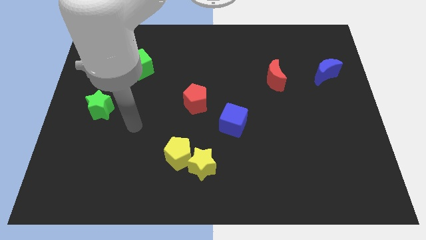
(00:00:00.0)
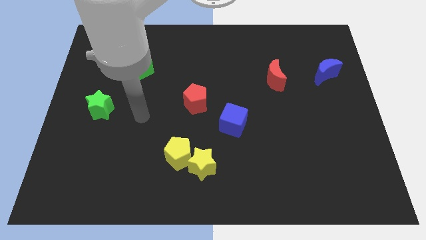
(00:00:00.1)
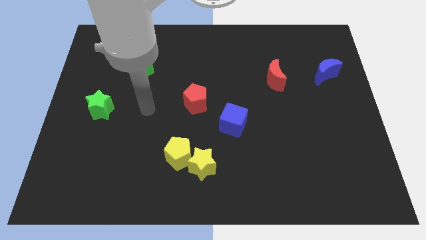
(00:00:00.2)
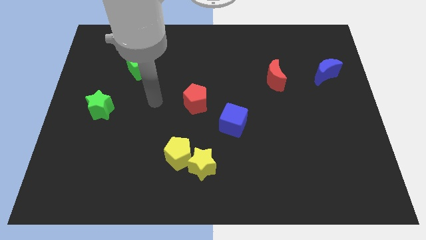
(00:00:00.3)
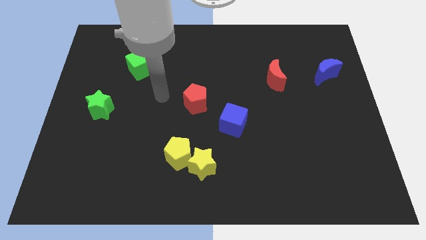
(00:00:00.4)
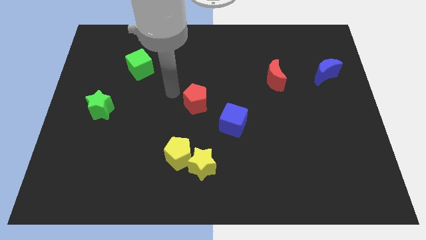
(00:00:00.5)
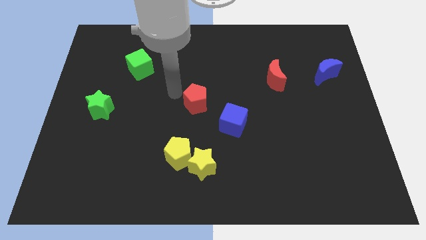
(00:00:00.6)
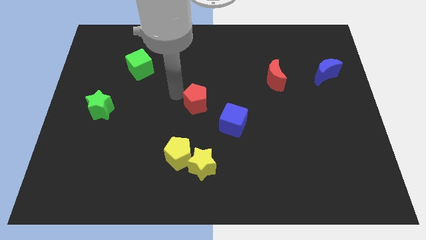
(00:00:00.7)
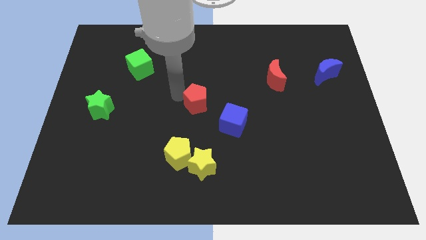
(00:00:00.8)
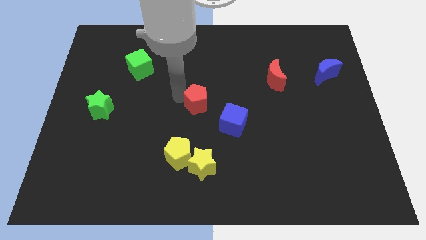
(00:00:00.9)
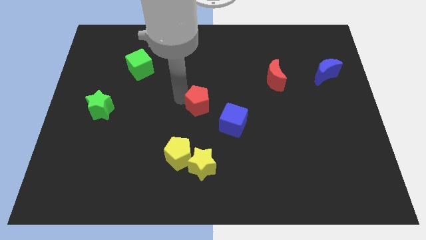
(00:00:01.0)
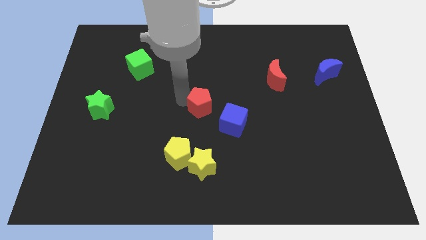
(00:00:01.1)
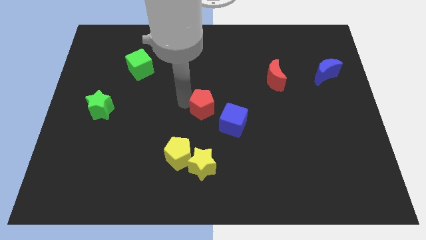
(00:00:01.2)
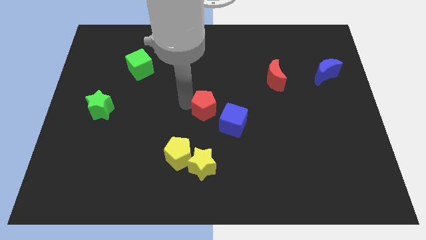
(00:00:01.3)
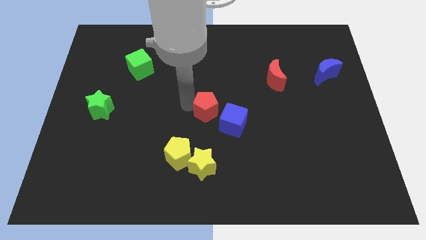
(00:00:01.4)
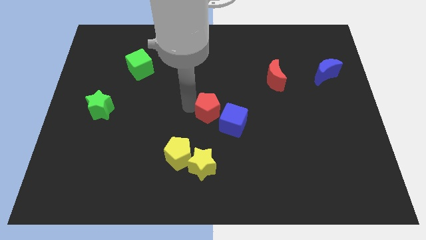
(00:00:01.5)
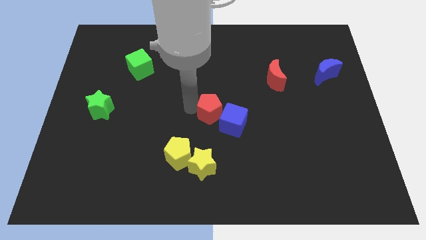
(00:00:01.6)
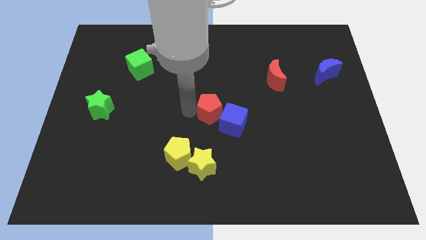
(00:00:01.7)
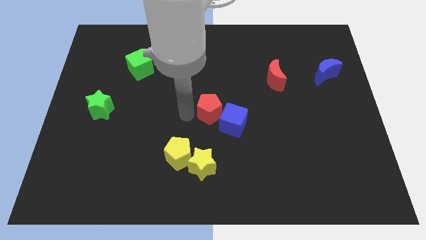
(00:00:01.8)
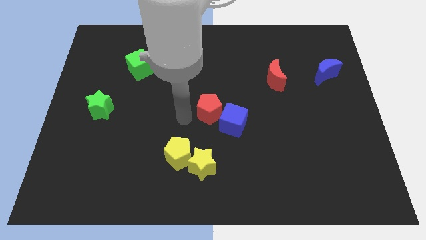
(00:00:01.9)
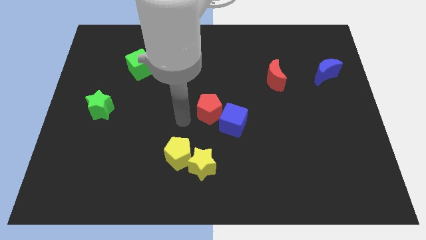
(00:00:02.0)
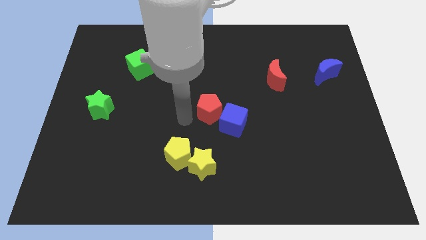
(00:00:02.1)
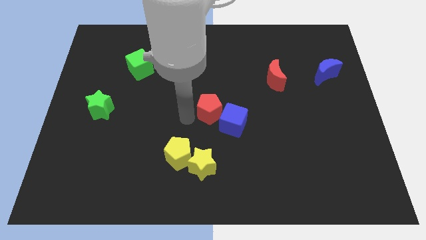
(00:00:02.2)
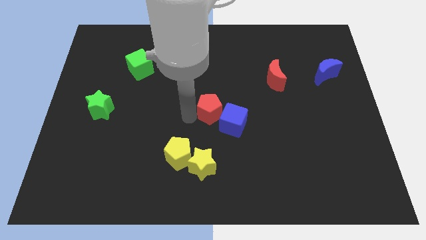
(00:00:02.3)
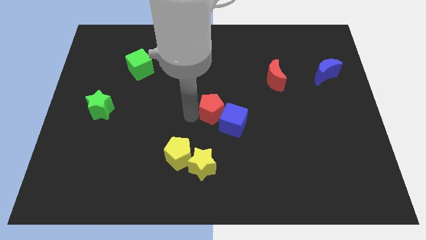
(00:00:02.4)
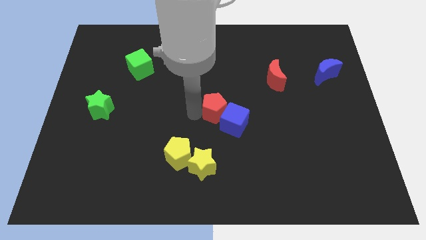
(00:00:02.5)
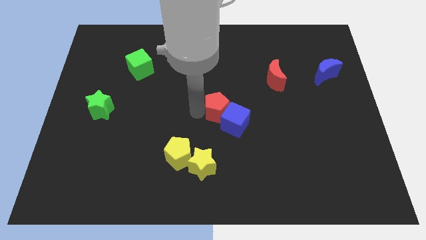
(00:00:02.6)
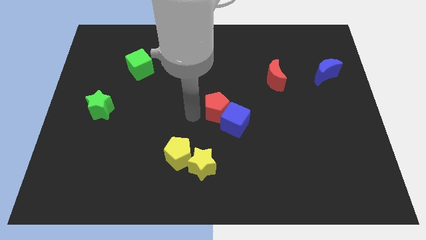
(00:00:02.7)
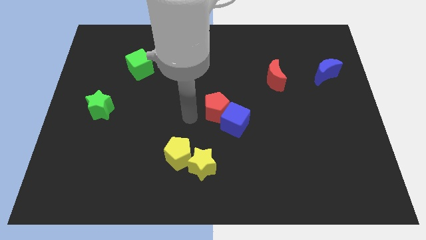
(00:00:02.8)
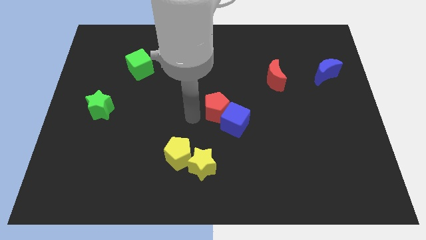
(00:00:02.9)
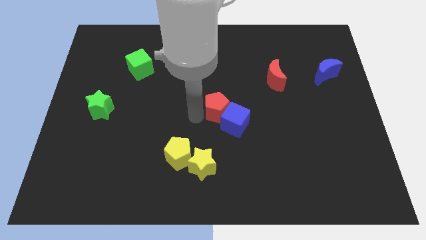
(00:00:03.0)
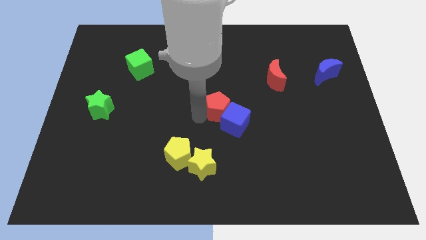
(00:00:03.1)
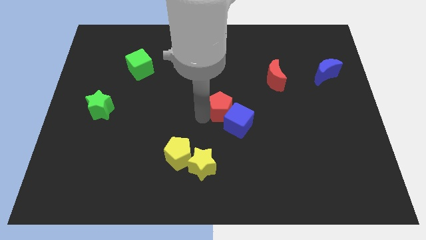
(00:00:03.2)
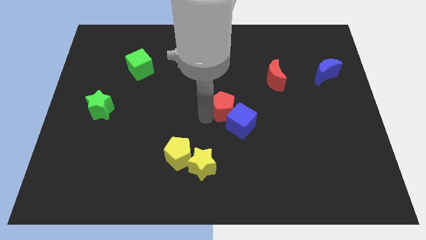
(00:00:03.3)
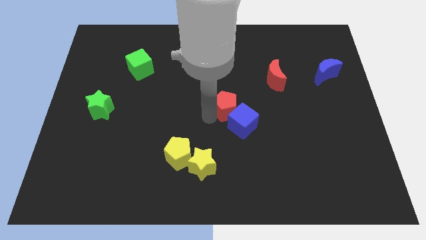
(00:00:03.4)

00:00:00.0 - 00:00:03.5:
slightly move the red pentagon right

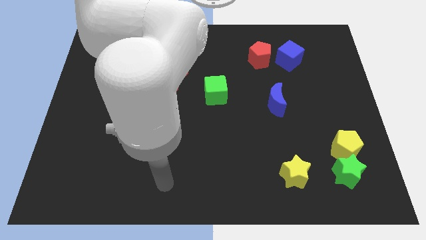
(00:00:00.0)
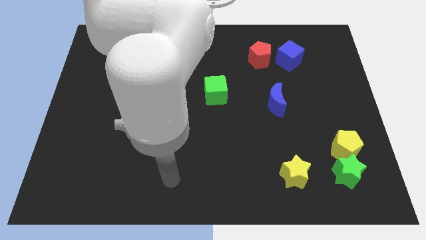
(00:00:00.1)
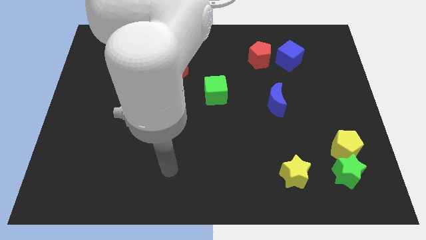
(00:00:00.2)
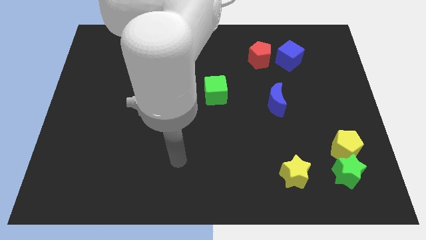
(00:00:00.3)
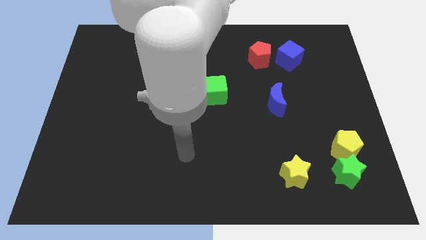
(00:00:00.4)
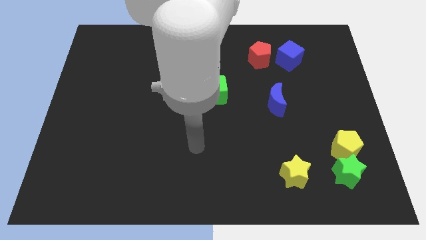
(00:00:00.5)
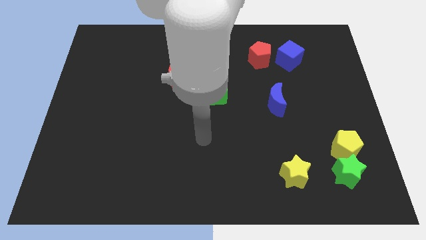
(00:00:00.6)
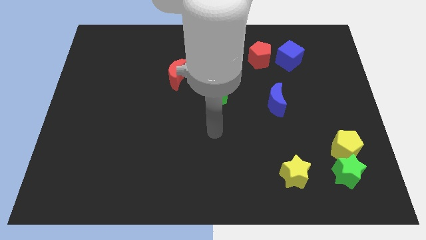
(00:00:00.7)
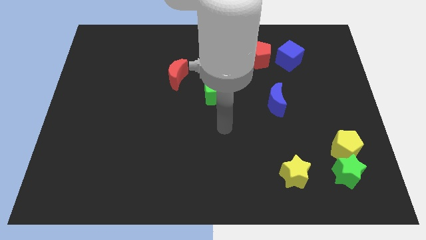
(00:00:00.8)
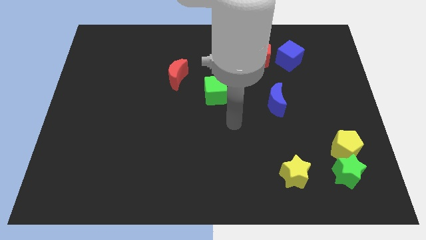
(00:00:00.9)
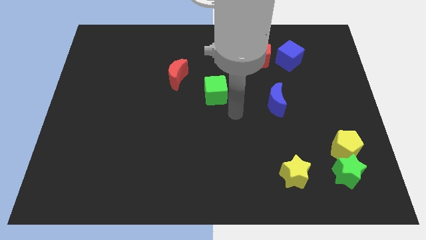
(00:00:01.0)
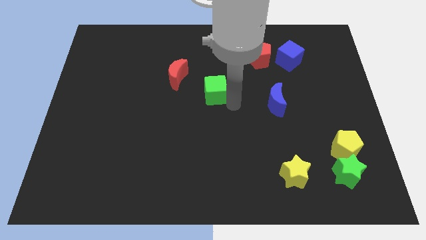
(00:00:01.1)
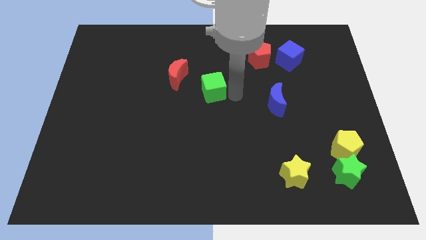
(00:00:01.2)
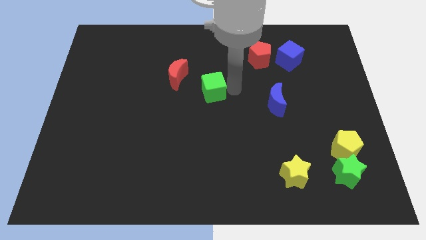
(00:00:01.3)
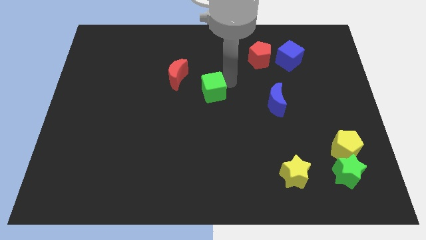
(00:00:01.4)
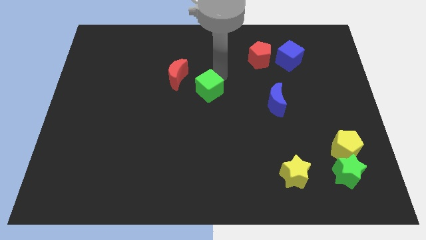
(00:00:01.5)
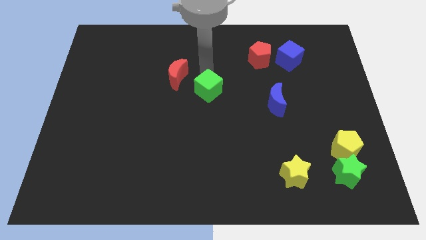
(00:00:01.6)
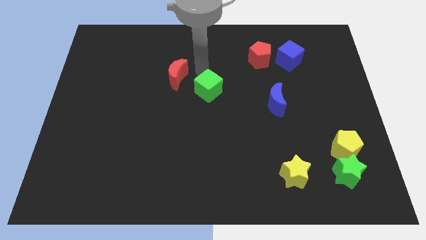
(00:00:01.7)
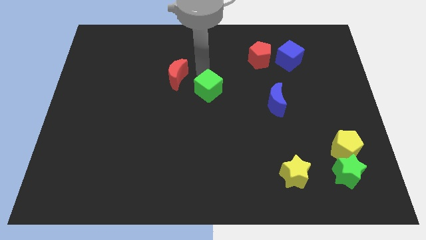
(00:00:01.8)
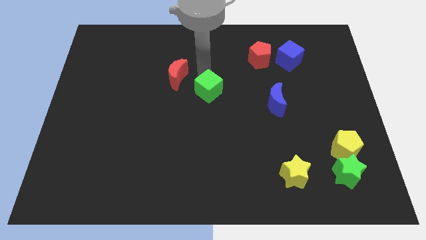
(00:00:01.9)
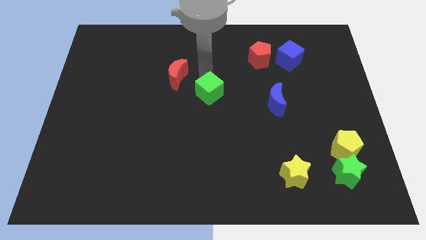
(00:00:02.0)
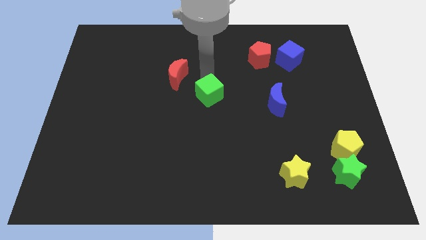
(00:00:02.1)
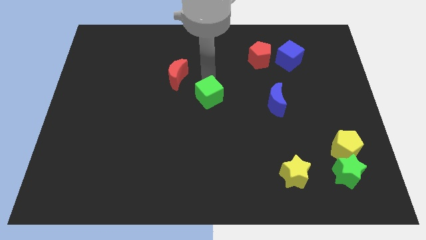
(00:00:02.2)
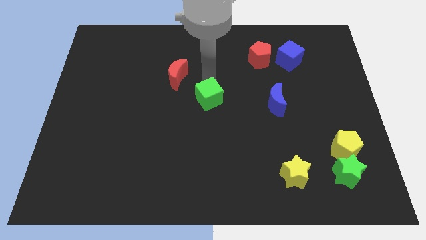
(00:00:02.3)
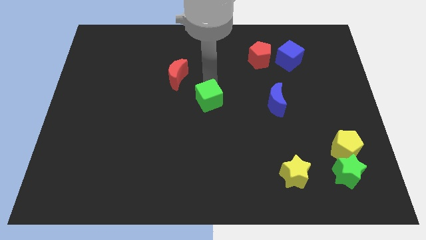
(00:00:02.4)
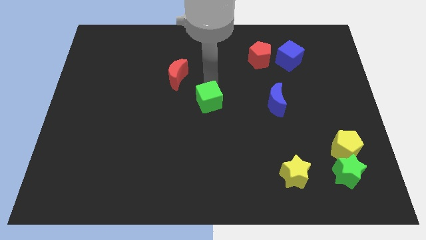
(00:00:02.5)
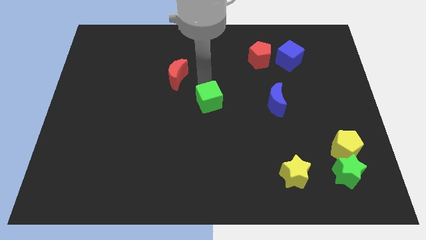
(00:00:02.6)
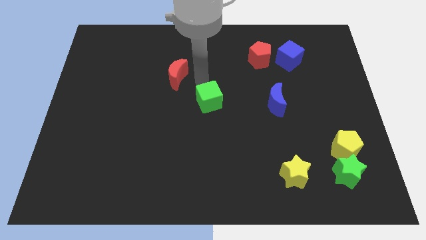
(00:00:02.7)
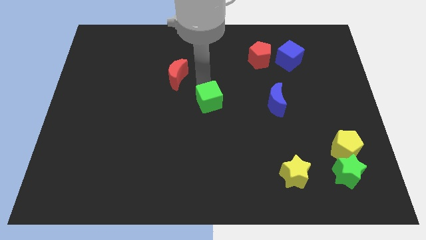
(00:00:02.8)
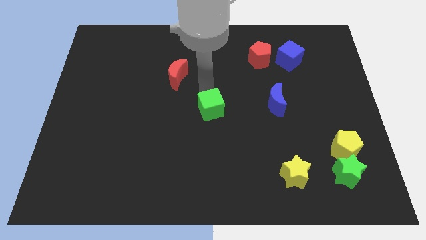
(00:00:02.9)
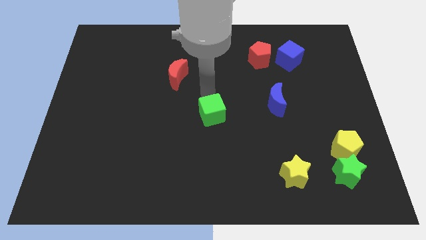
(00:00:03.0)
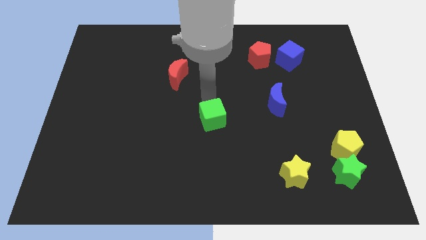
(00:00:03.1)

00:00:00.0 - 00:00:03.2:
slightly slide the green cube downwards

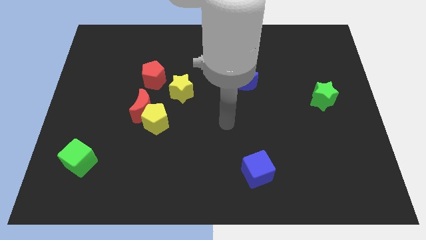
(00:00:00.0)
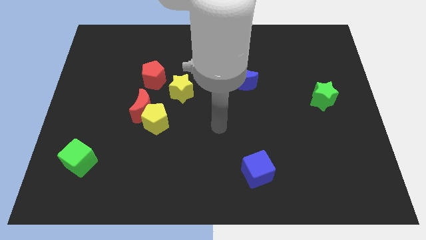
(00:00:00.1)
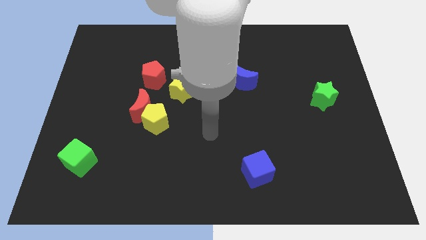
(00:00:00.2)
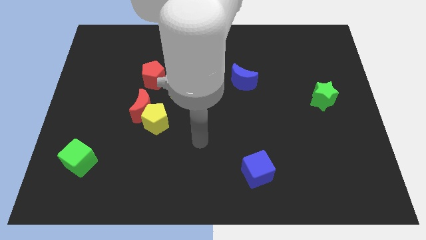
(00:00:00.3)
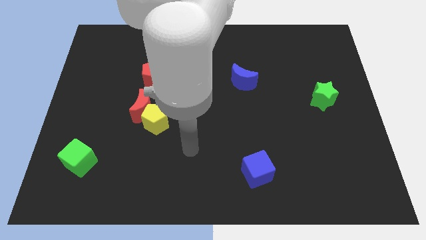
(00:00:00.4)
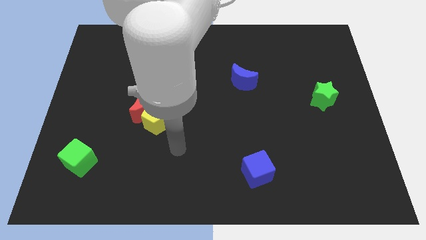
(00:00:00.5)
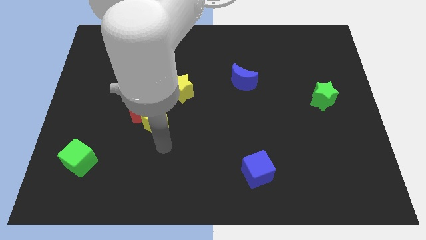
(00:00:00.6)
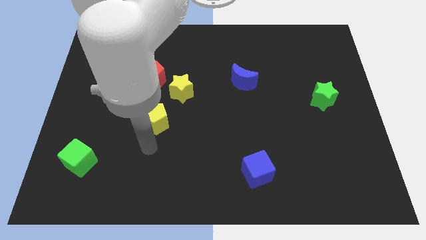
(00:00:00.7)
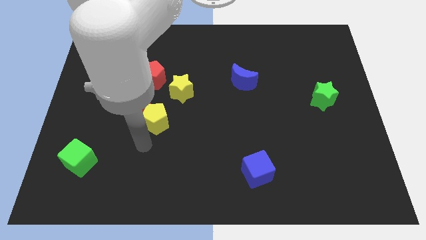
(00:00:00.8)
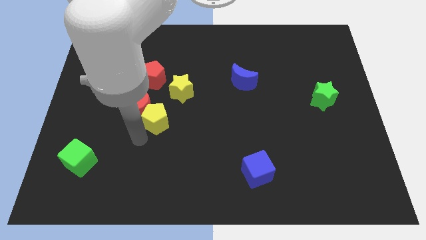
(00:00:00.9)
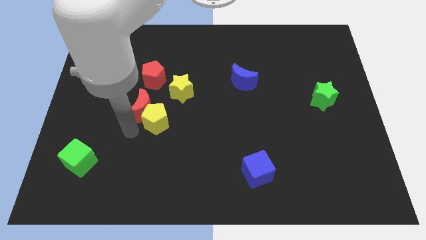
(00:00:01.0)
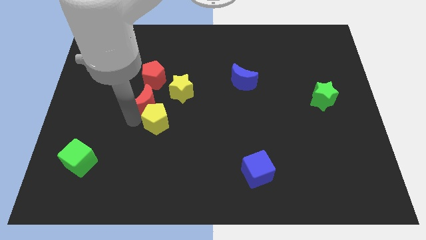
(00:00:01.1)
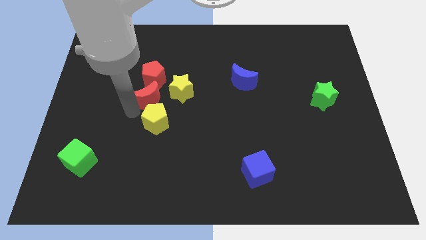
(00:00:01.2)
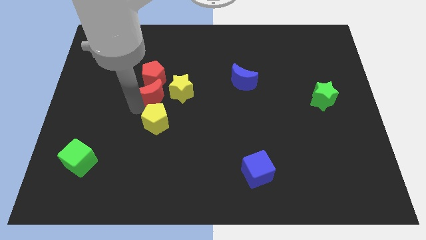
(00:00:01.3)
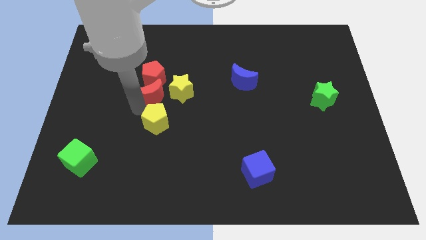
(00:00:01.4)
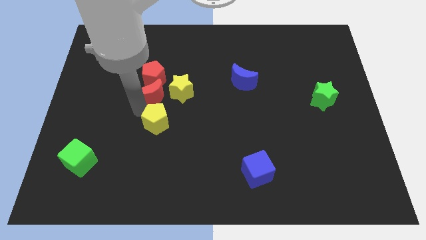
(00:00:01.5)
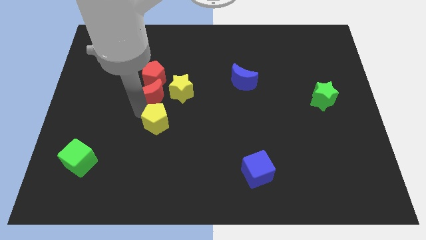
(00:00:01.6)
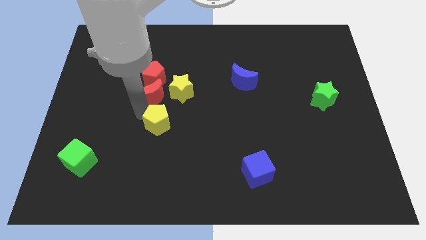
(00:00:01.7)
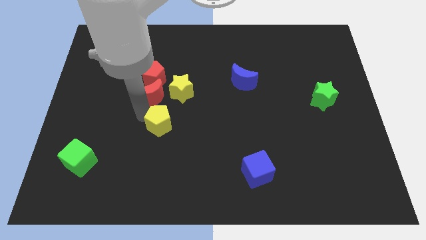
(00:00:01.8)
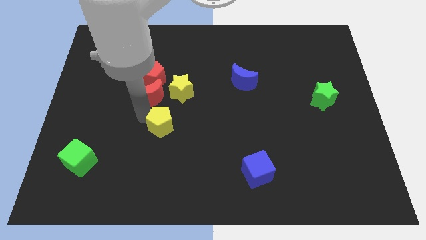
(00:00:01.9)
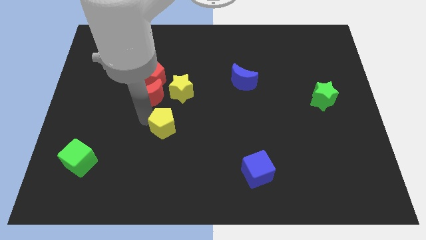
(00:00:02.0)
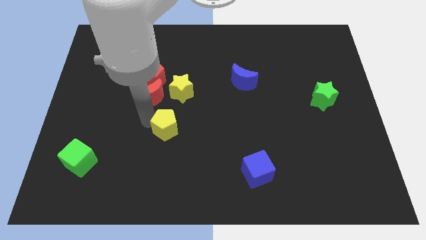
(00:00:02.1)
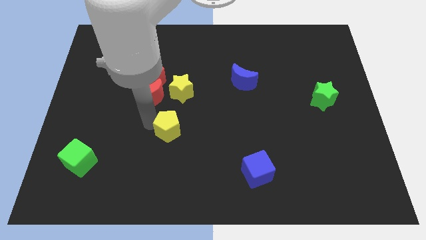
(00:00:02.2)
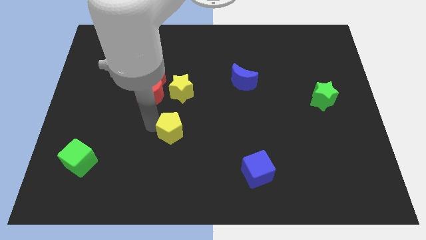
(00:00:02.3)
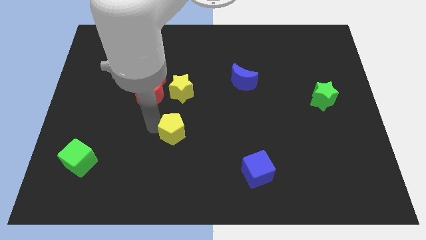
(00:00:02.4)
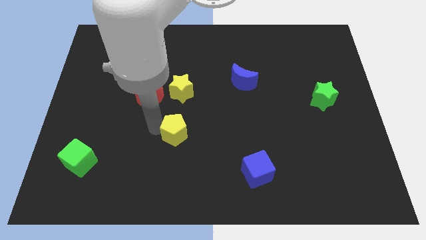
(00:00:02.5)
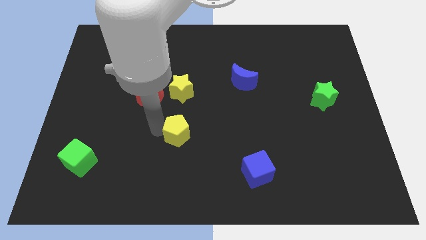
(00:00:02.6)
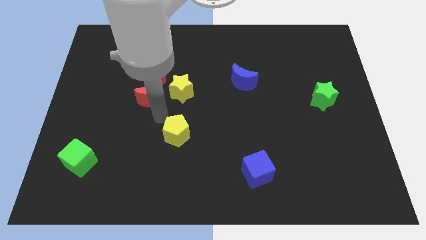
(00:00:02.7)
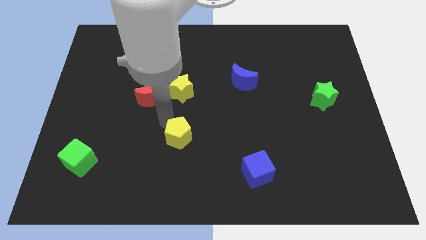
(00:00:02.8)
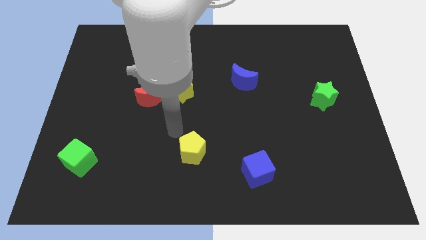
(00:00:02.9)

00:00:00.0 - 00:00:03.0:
slightly move the yellow pentagon diagonally down and to the right
